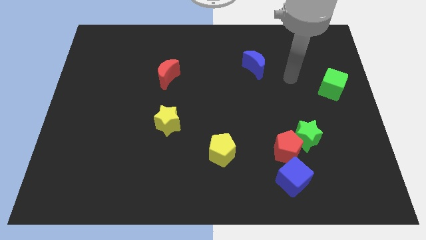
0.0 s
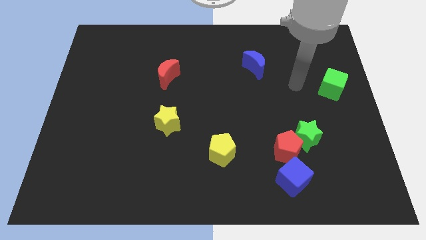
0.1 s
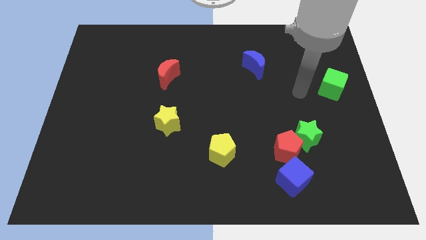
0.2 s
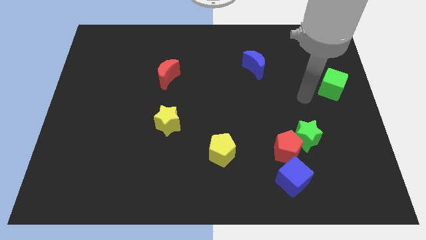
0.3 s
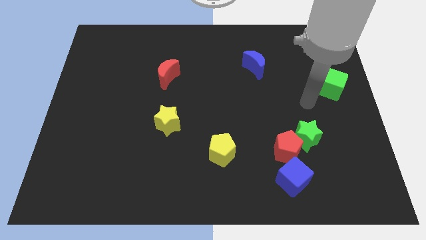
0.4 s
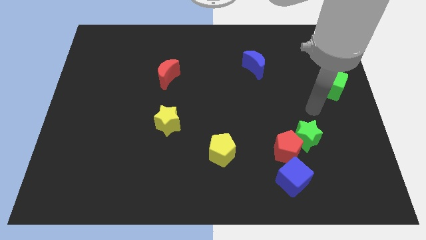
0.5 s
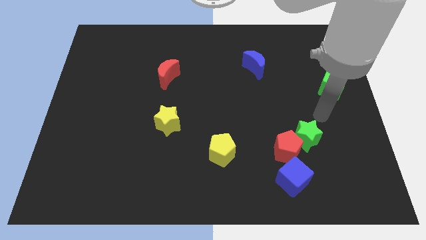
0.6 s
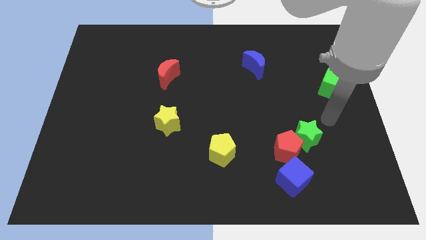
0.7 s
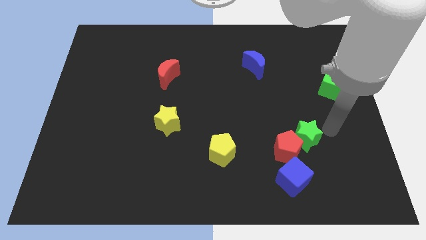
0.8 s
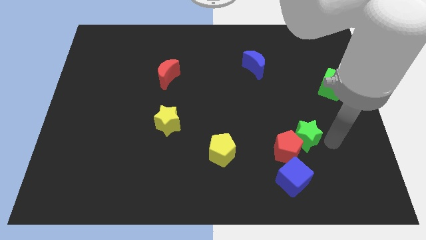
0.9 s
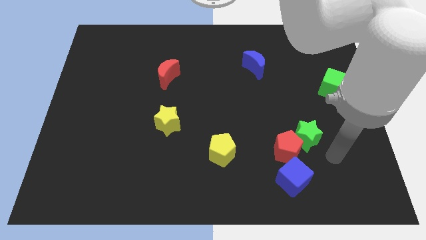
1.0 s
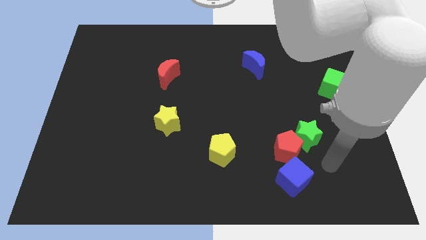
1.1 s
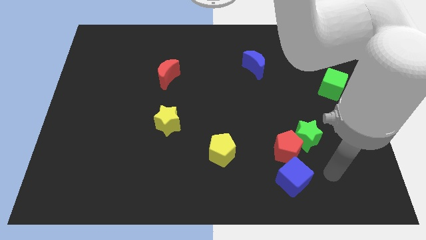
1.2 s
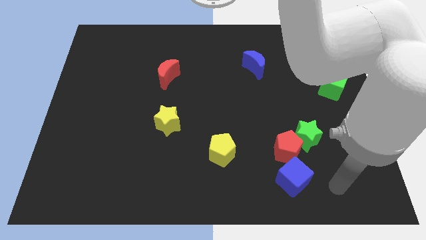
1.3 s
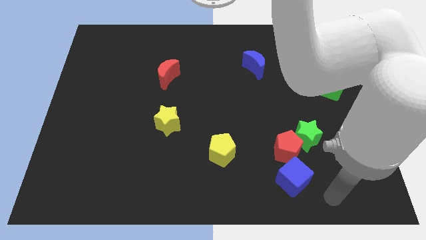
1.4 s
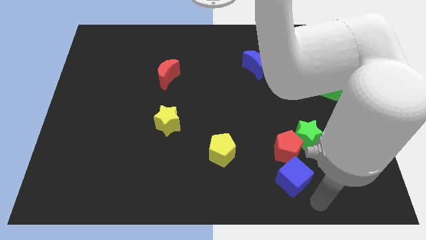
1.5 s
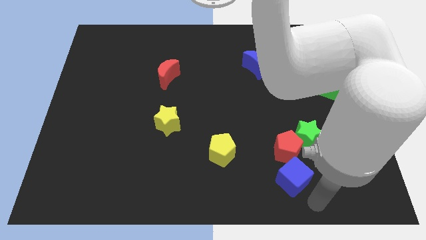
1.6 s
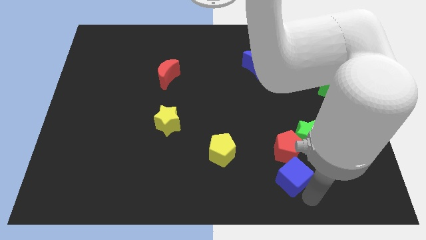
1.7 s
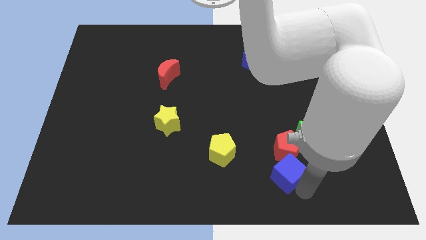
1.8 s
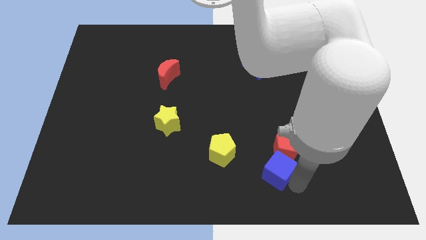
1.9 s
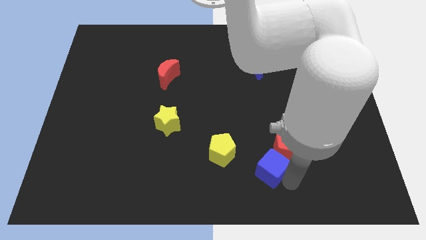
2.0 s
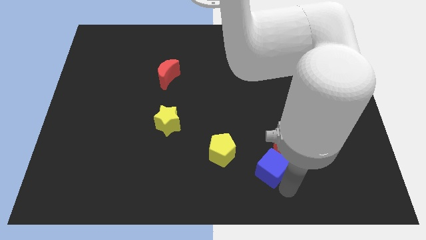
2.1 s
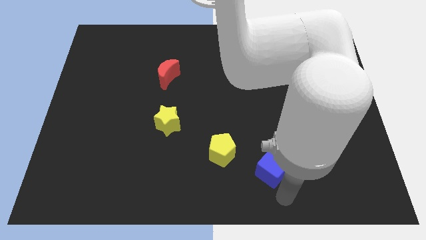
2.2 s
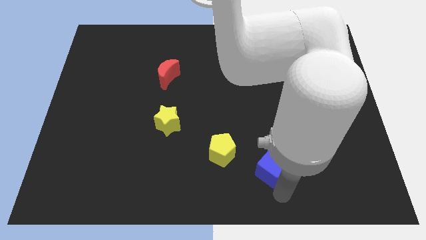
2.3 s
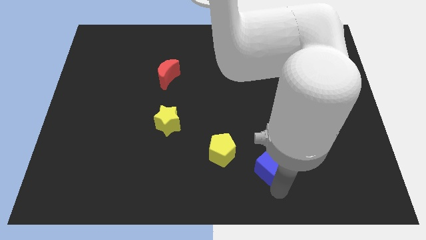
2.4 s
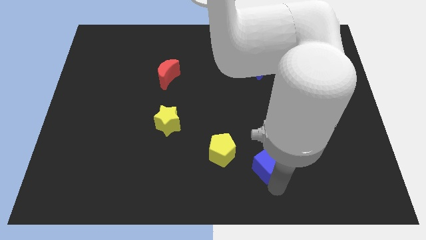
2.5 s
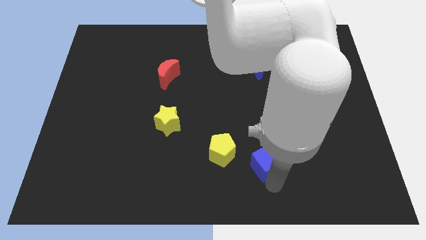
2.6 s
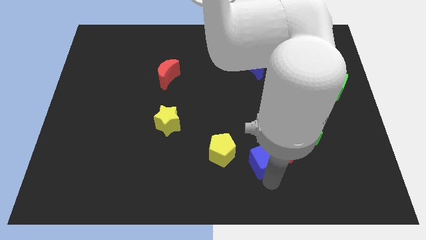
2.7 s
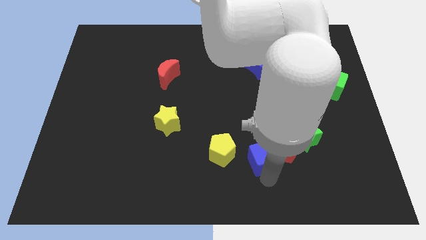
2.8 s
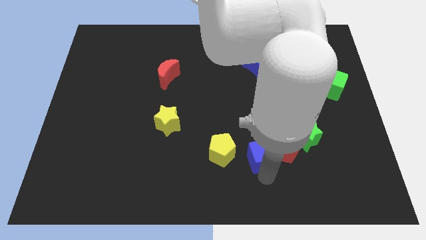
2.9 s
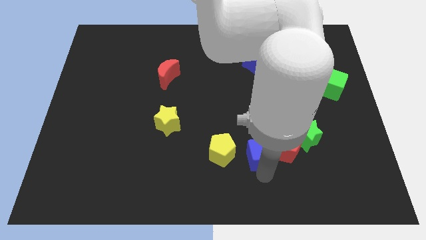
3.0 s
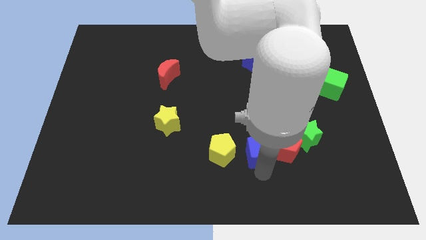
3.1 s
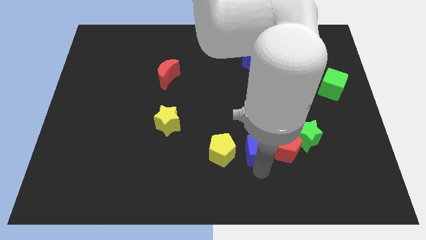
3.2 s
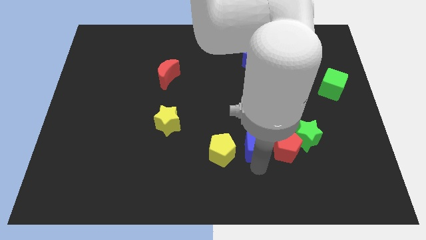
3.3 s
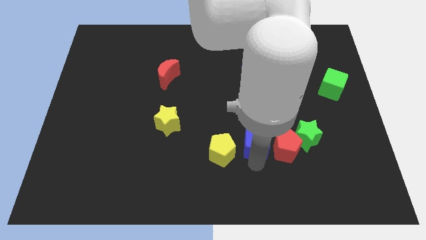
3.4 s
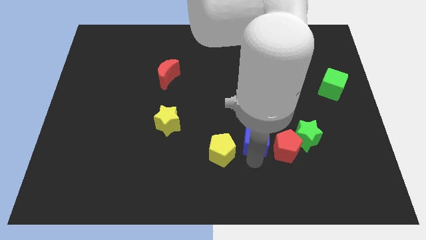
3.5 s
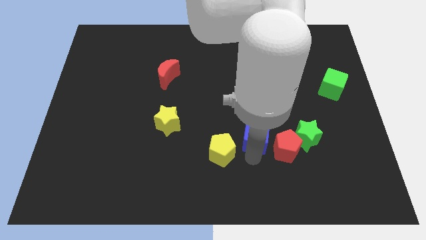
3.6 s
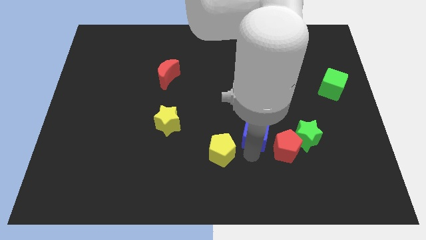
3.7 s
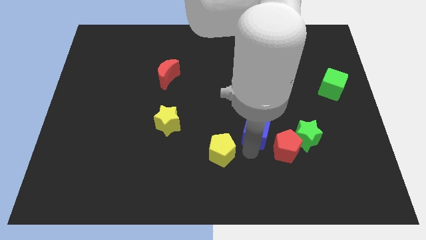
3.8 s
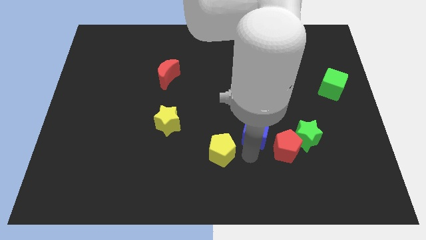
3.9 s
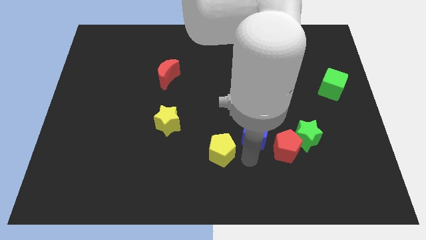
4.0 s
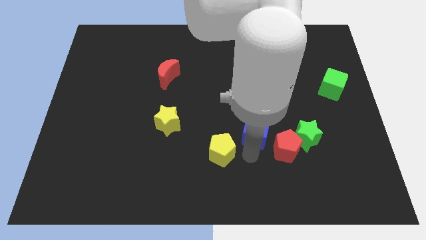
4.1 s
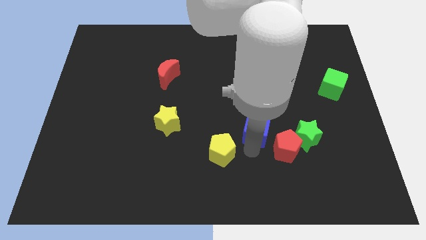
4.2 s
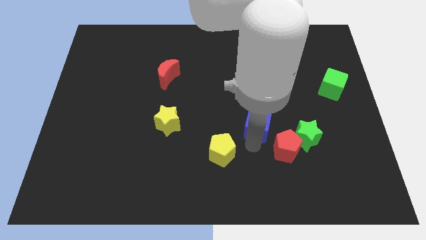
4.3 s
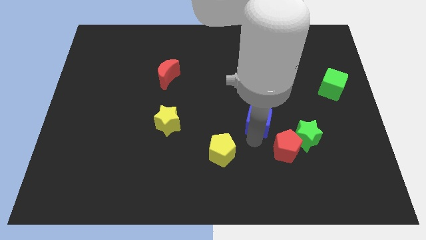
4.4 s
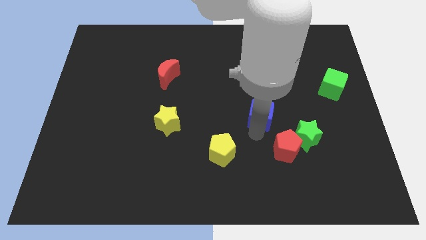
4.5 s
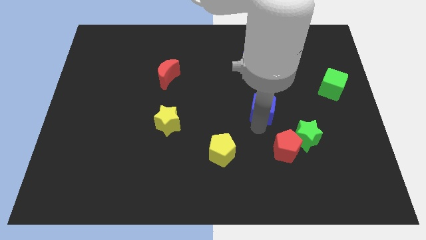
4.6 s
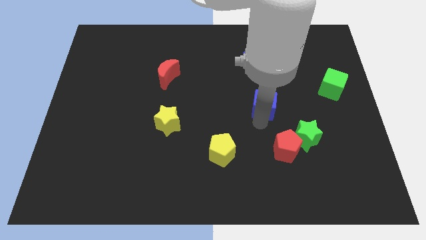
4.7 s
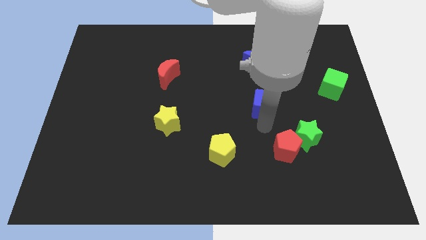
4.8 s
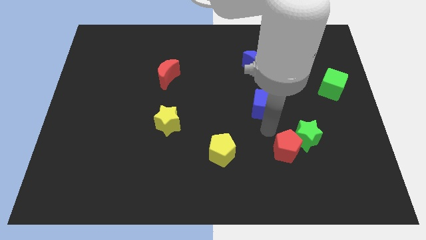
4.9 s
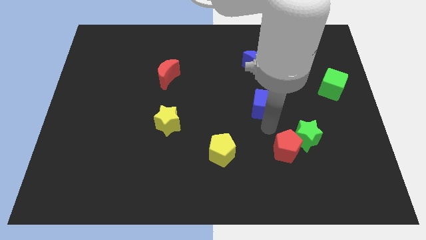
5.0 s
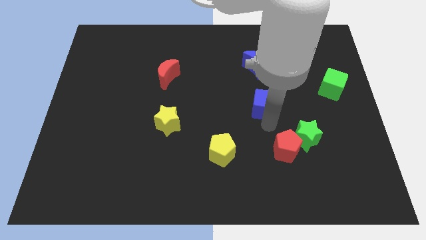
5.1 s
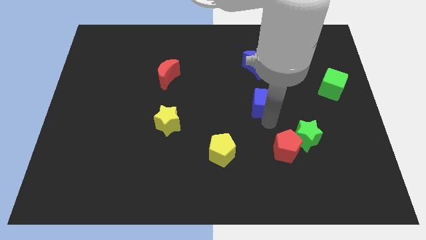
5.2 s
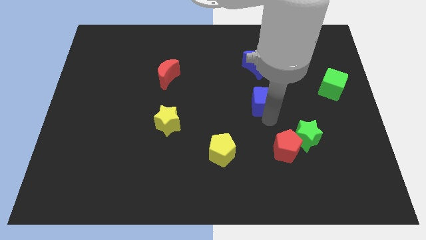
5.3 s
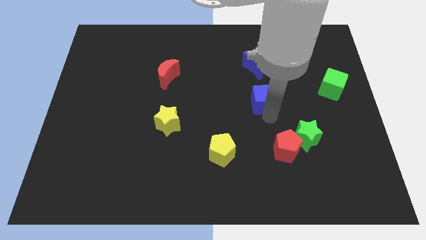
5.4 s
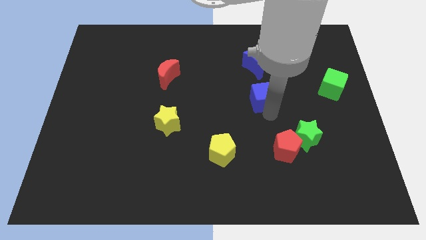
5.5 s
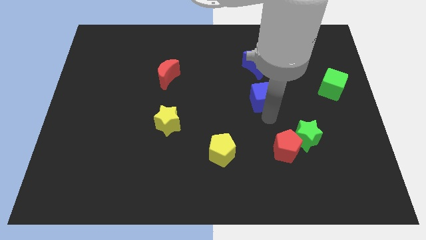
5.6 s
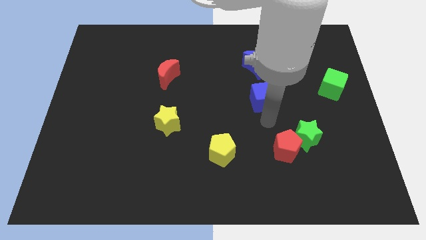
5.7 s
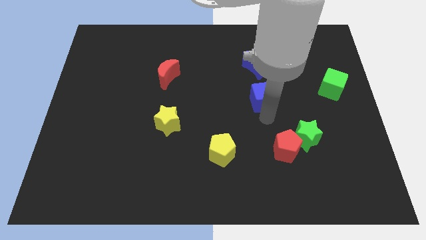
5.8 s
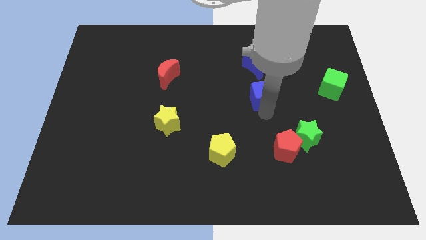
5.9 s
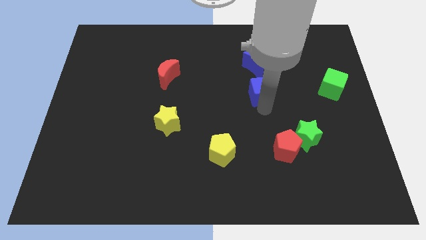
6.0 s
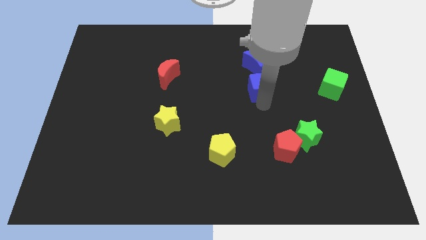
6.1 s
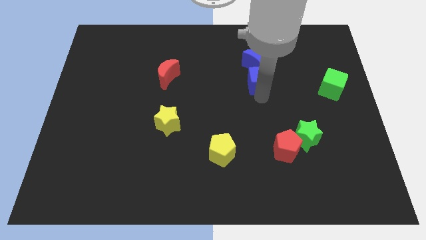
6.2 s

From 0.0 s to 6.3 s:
slide the blue cube close to the blue moon

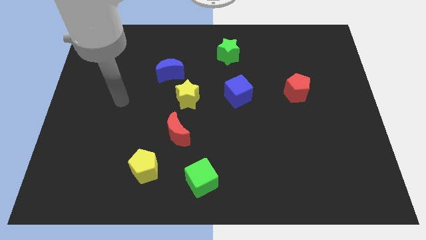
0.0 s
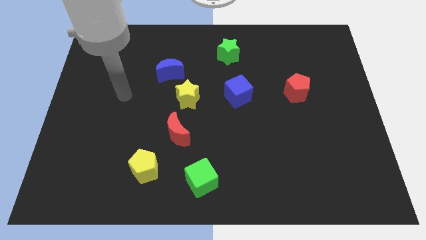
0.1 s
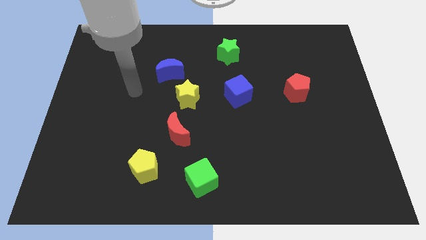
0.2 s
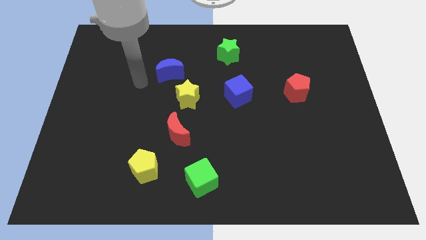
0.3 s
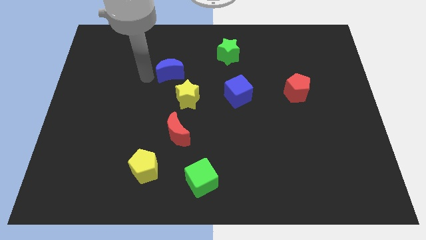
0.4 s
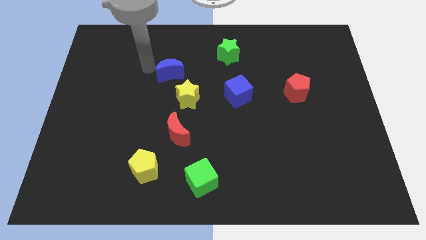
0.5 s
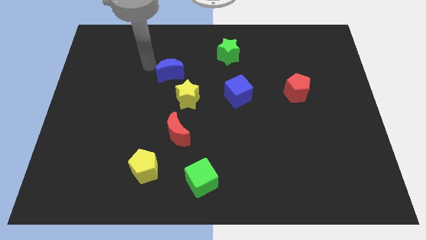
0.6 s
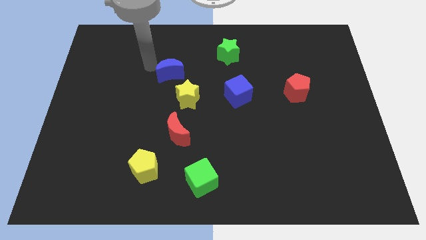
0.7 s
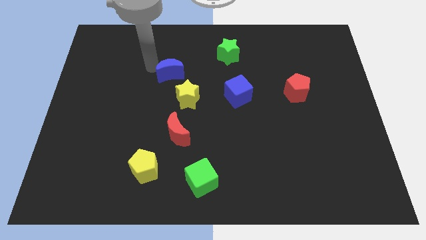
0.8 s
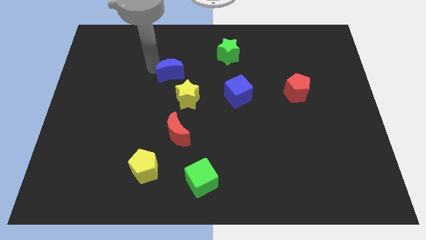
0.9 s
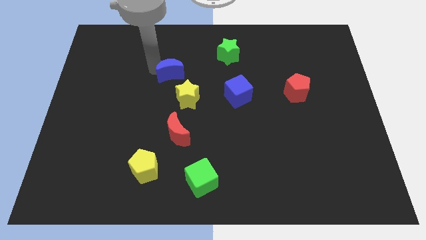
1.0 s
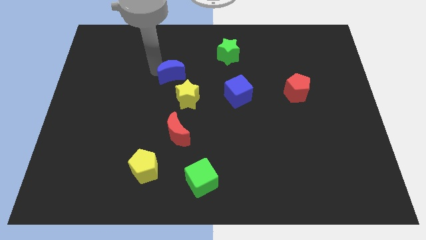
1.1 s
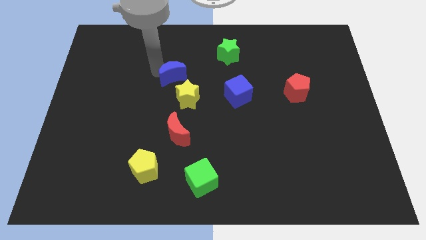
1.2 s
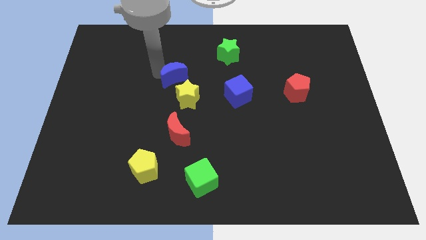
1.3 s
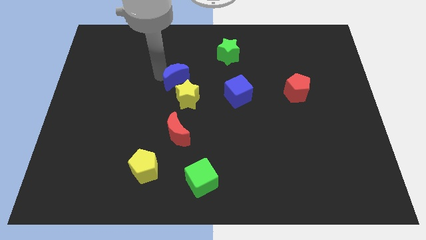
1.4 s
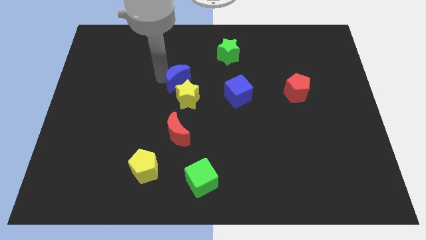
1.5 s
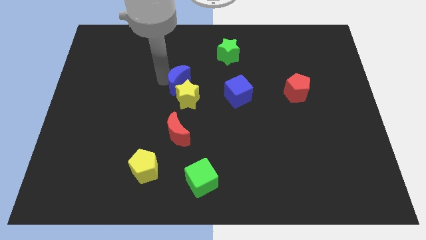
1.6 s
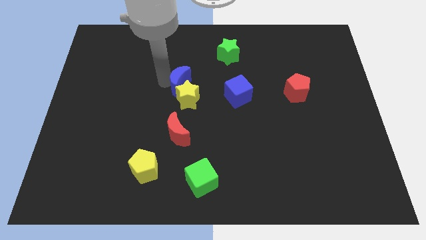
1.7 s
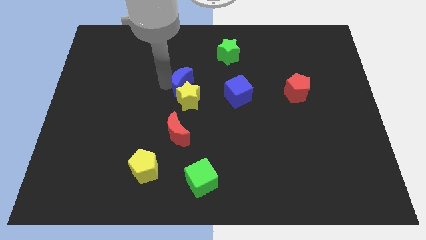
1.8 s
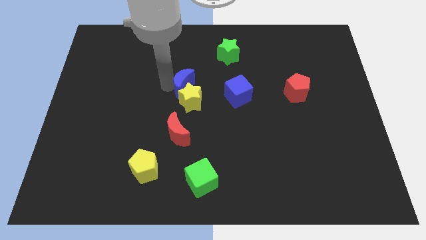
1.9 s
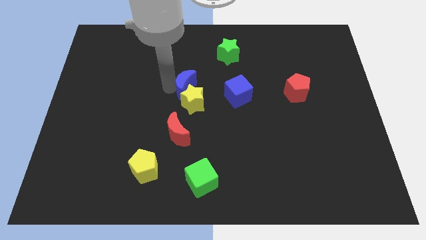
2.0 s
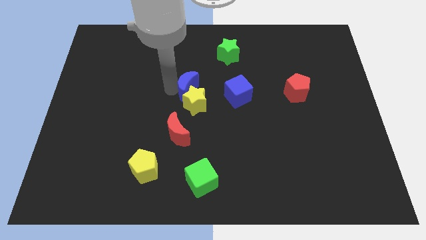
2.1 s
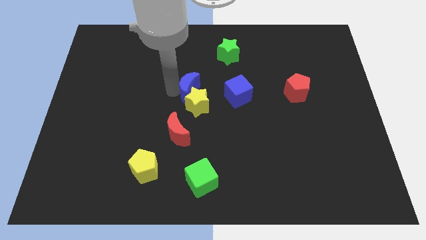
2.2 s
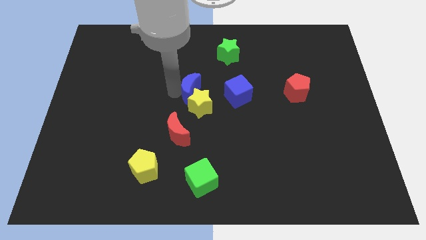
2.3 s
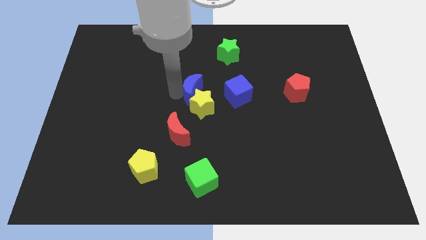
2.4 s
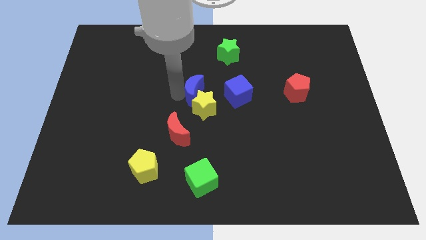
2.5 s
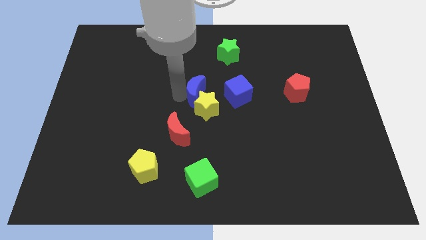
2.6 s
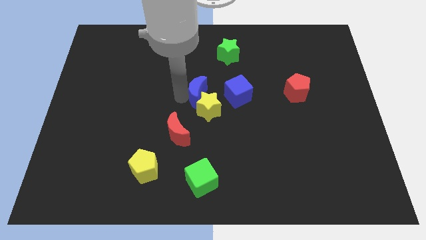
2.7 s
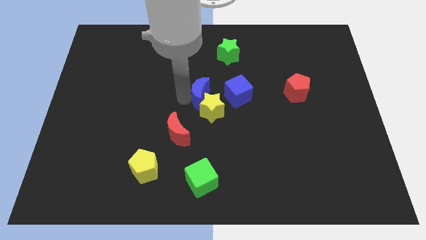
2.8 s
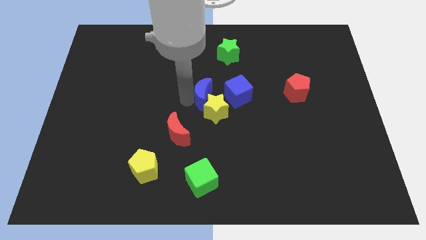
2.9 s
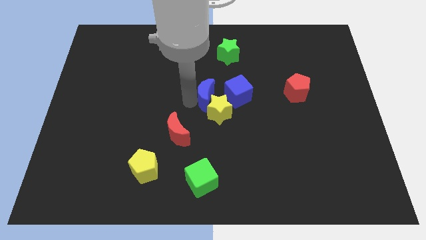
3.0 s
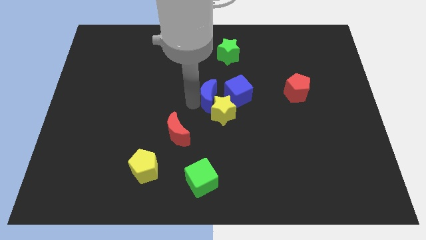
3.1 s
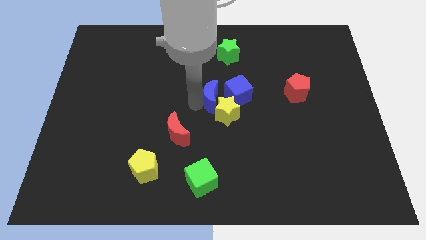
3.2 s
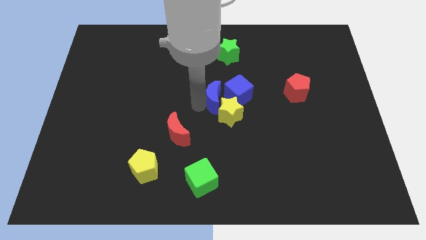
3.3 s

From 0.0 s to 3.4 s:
slide the blue moon next to the blue cube
